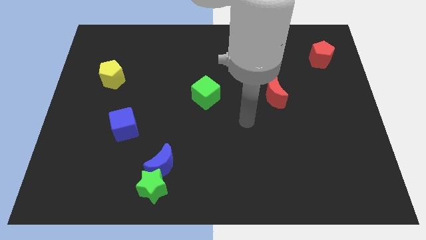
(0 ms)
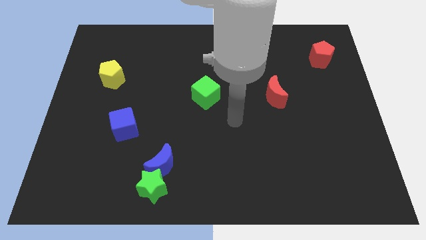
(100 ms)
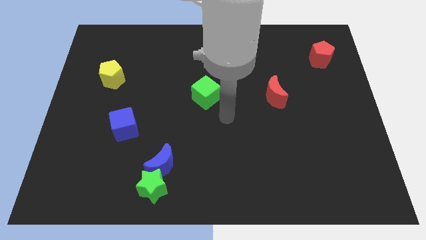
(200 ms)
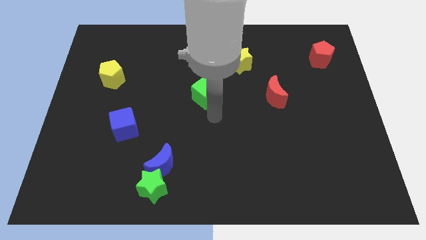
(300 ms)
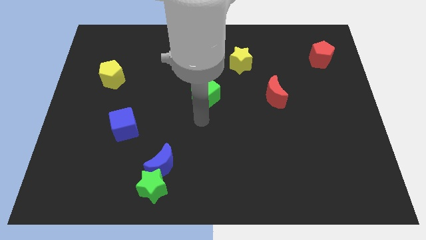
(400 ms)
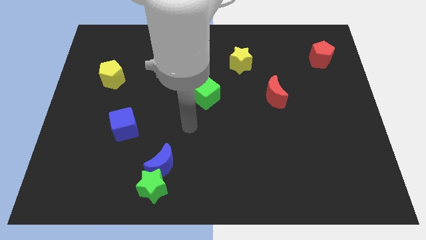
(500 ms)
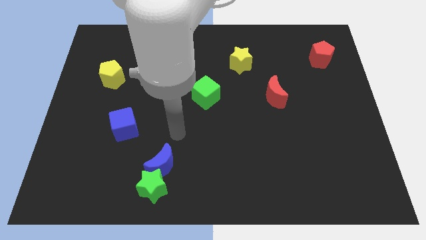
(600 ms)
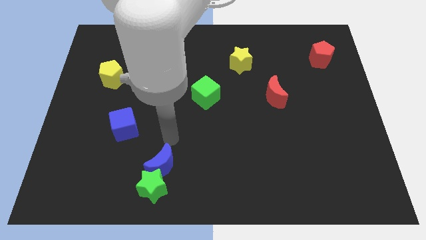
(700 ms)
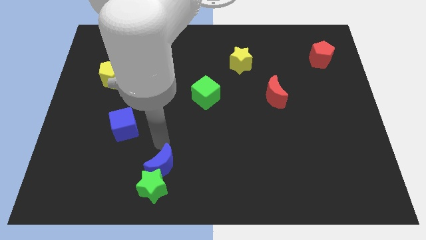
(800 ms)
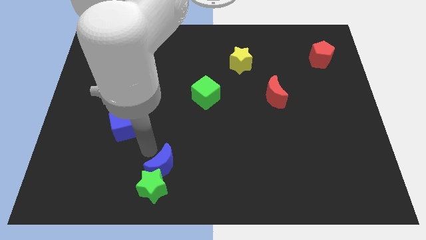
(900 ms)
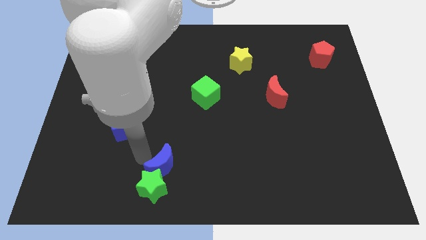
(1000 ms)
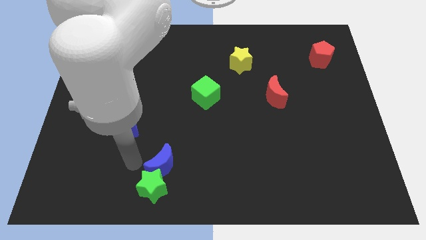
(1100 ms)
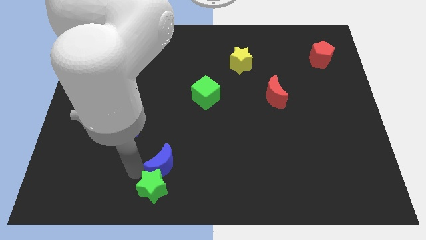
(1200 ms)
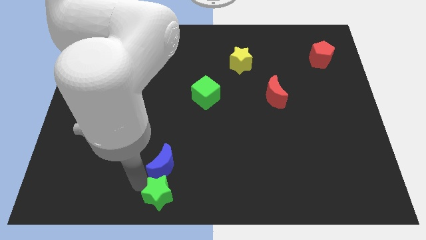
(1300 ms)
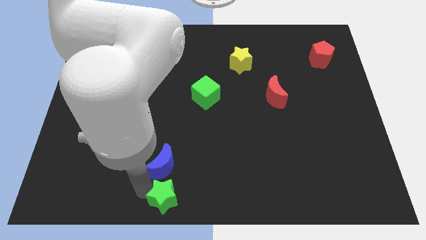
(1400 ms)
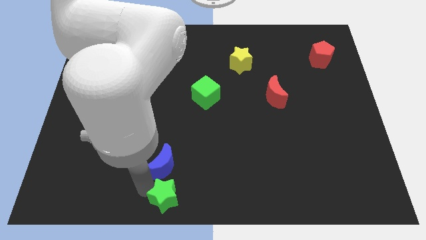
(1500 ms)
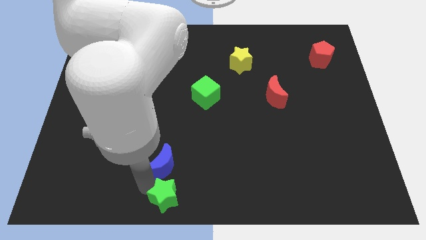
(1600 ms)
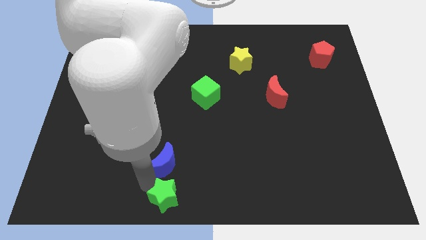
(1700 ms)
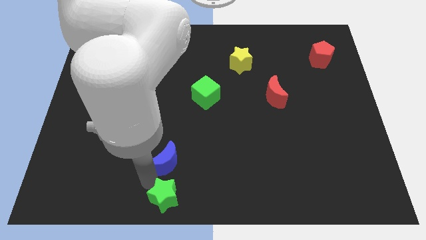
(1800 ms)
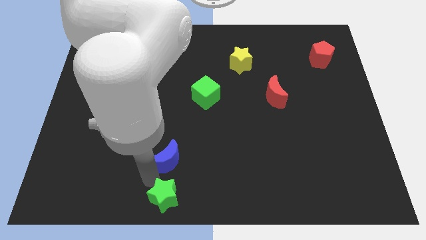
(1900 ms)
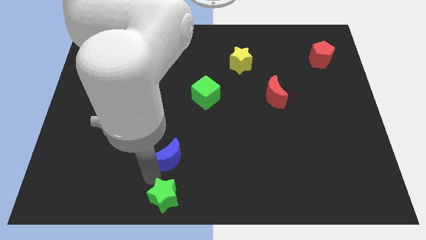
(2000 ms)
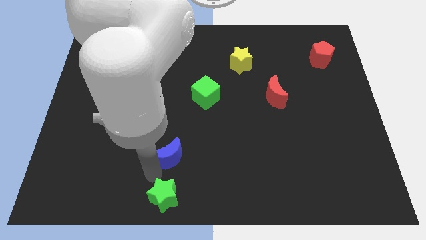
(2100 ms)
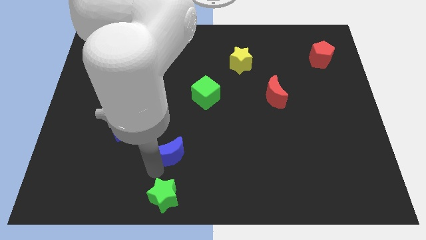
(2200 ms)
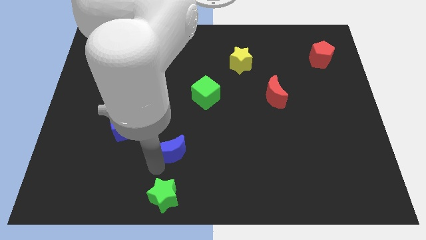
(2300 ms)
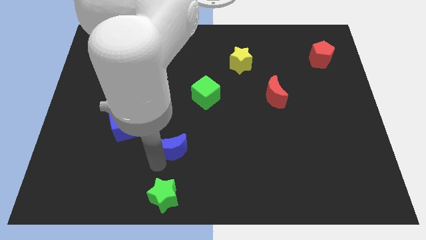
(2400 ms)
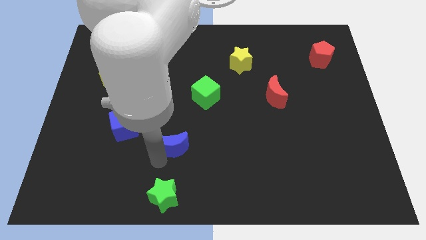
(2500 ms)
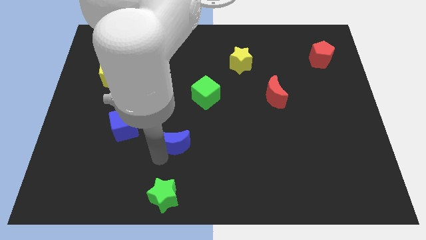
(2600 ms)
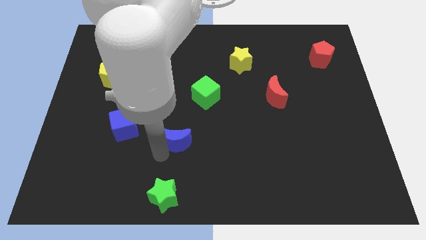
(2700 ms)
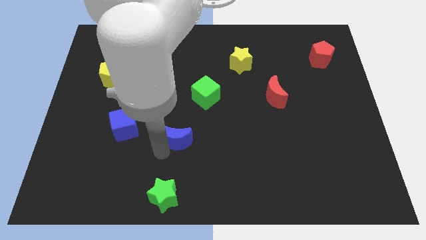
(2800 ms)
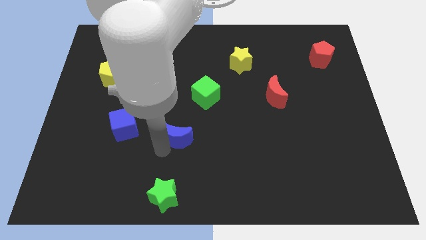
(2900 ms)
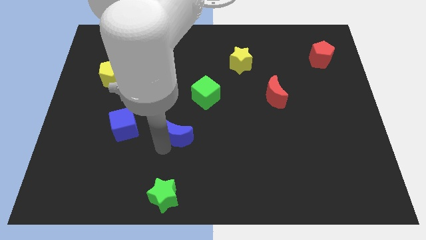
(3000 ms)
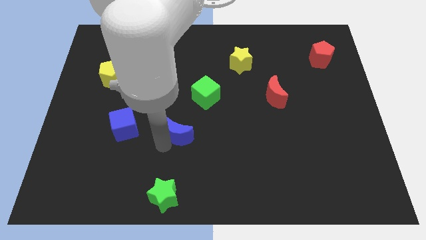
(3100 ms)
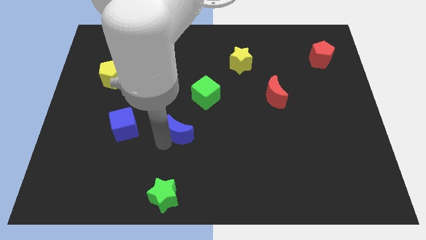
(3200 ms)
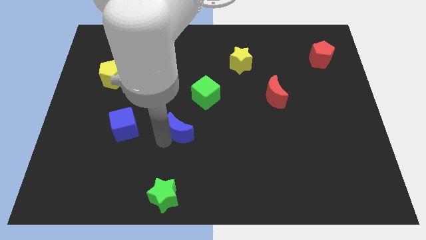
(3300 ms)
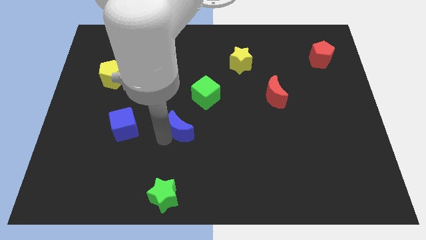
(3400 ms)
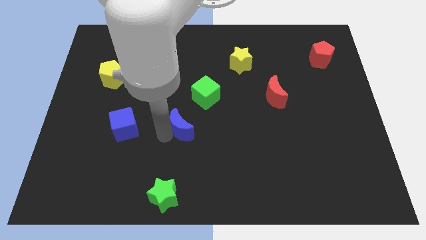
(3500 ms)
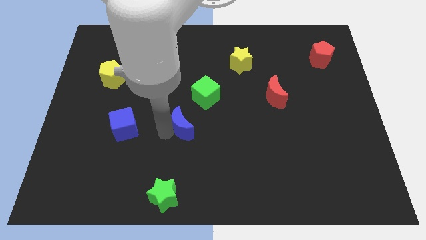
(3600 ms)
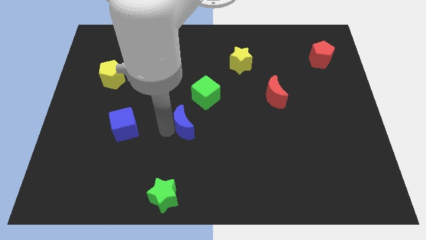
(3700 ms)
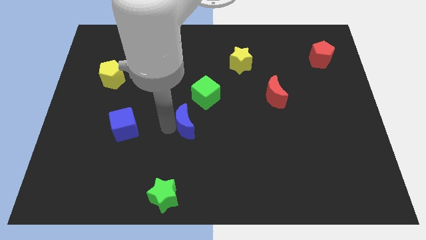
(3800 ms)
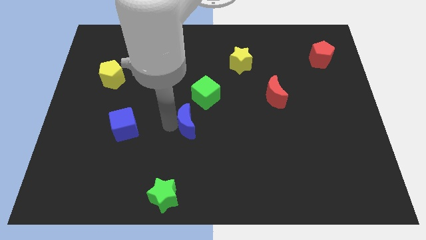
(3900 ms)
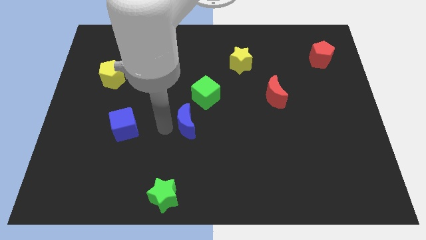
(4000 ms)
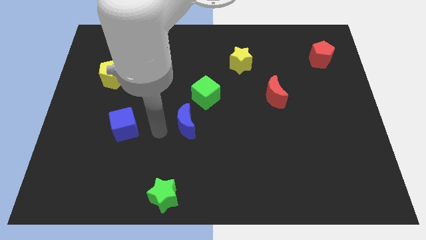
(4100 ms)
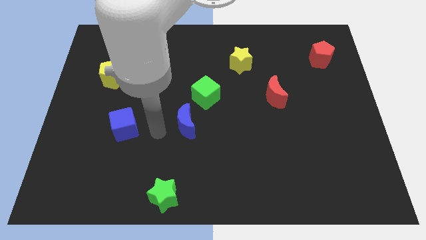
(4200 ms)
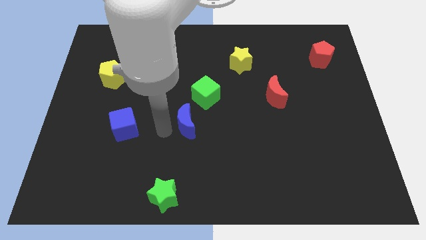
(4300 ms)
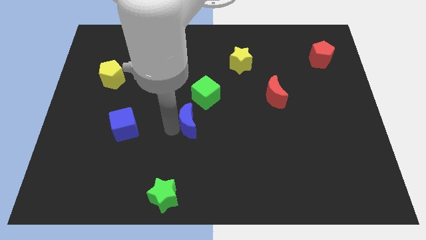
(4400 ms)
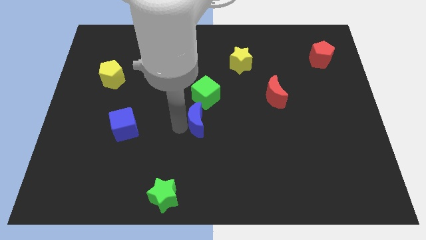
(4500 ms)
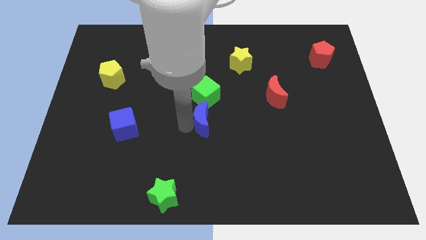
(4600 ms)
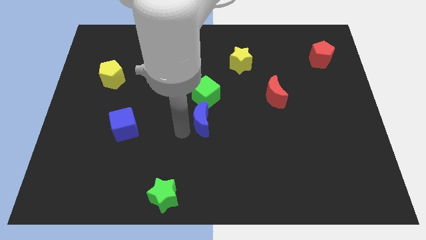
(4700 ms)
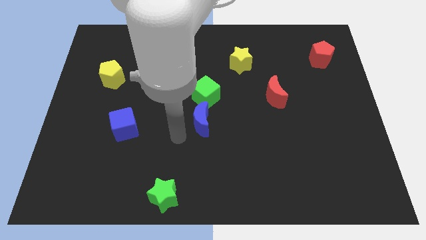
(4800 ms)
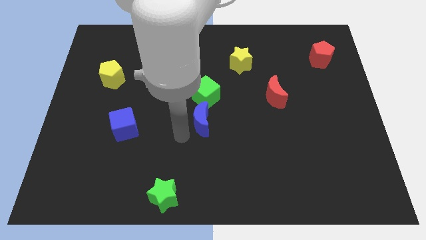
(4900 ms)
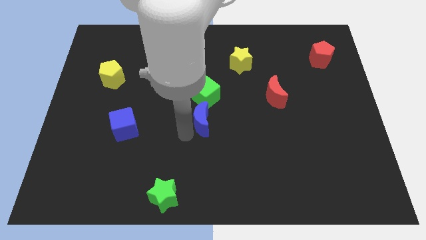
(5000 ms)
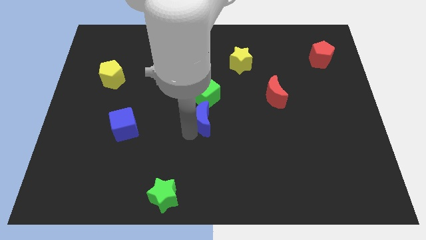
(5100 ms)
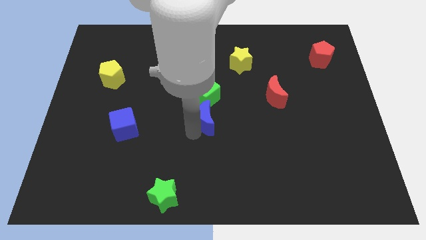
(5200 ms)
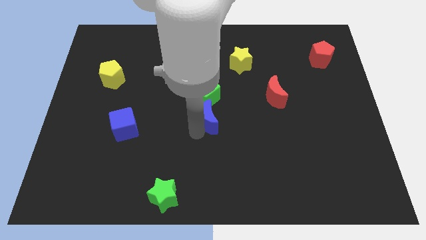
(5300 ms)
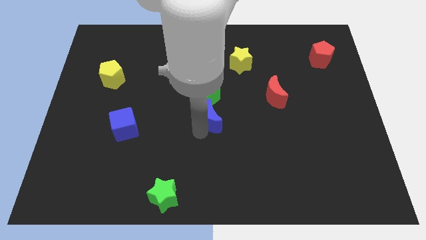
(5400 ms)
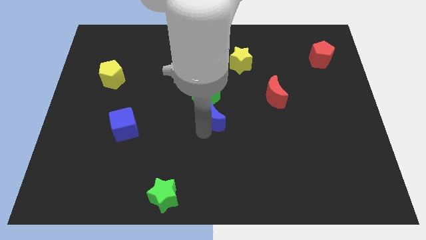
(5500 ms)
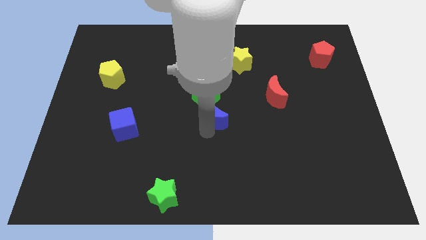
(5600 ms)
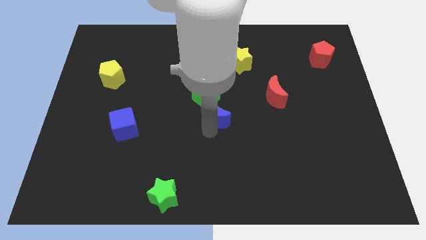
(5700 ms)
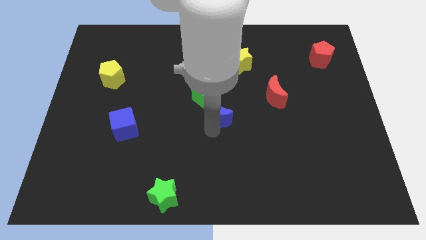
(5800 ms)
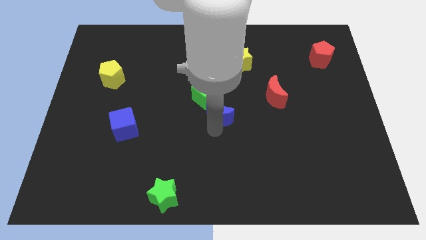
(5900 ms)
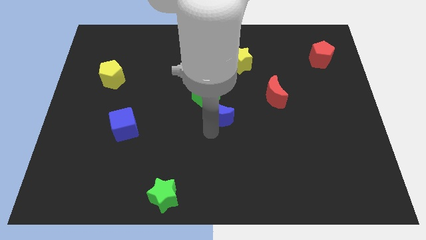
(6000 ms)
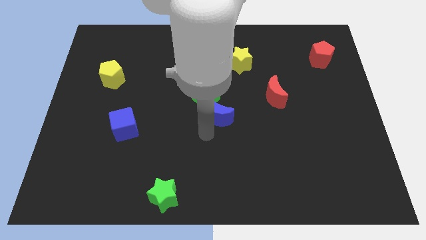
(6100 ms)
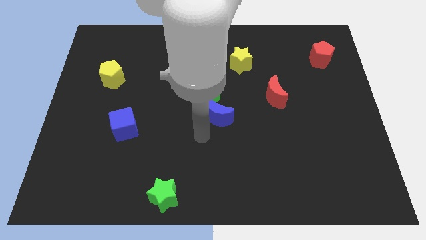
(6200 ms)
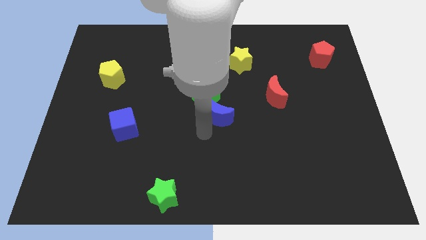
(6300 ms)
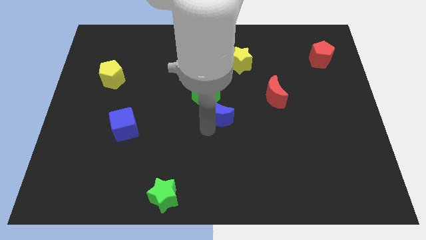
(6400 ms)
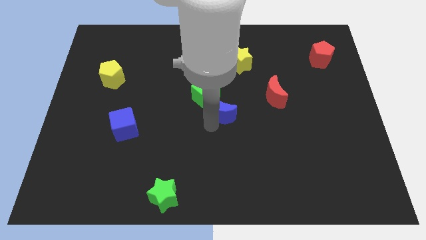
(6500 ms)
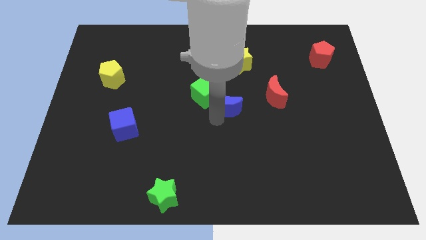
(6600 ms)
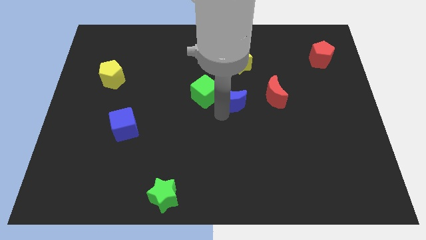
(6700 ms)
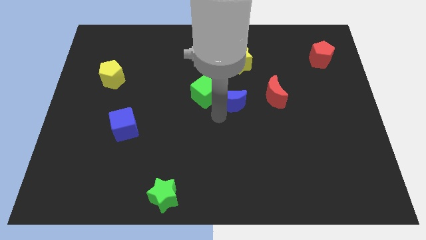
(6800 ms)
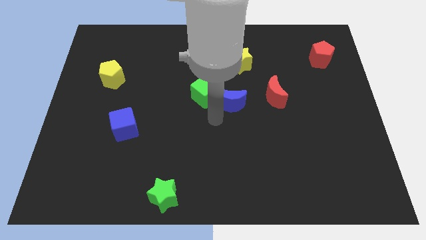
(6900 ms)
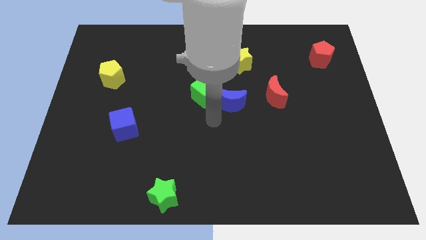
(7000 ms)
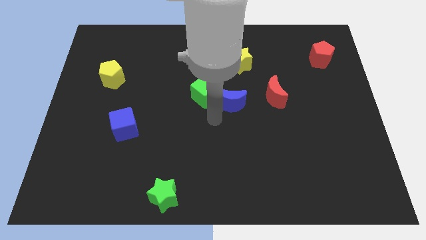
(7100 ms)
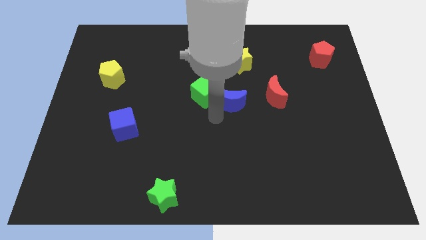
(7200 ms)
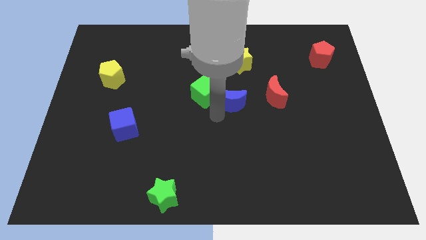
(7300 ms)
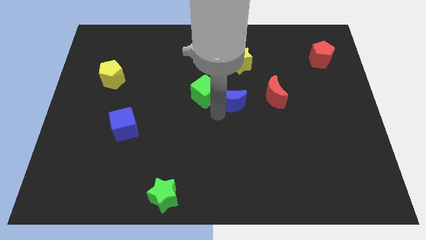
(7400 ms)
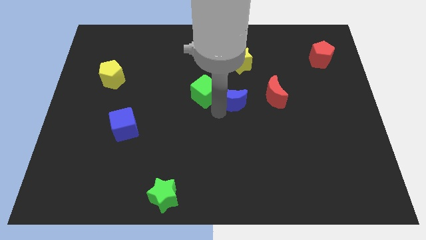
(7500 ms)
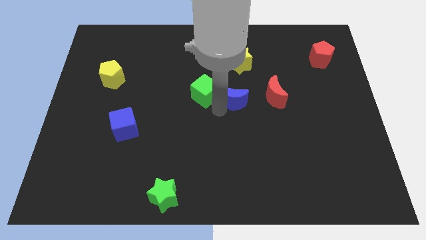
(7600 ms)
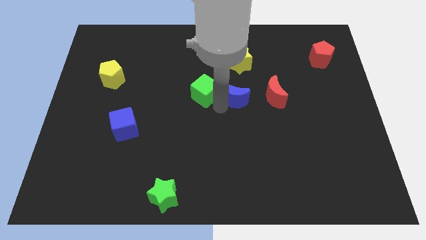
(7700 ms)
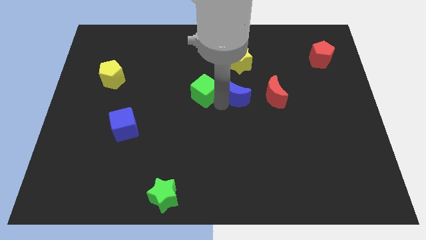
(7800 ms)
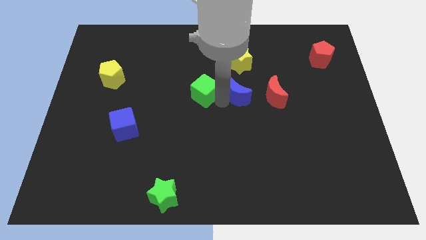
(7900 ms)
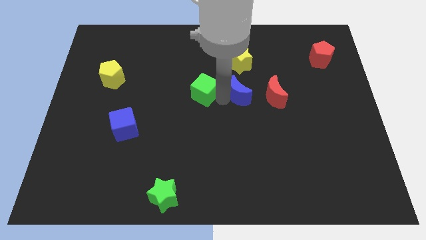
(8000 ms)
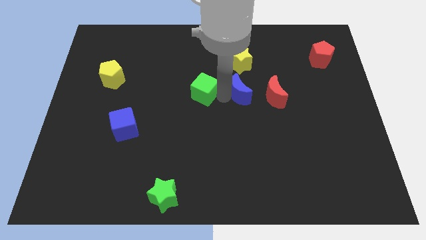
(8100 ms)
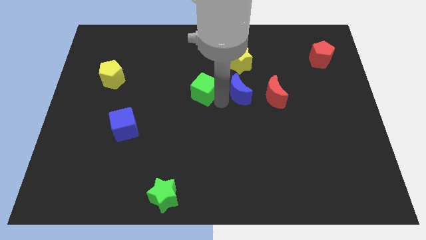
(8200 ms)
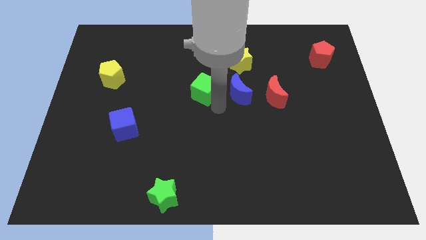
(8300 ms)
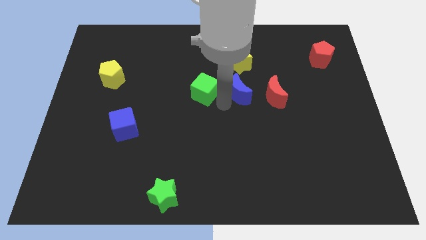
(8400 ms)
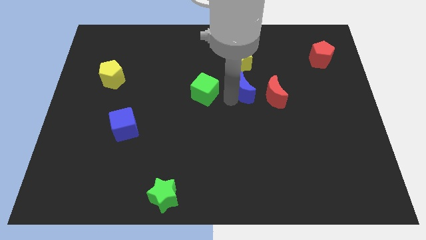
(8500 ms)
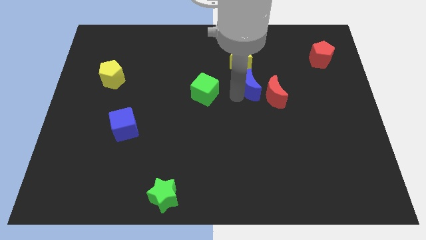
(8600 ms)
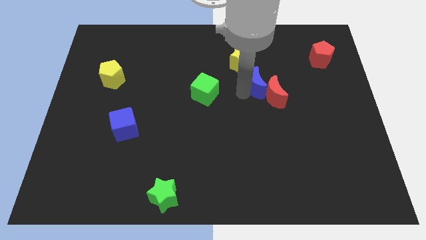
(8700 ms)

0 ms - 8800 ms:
slide the blue moon to the bottom right side of the yellow star
